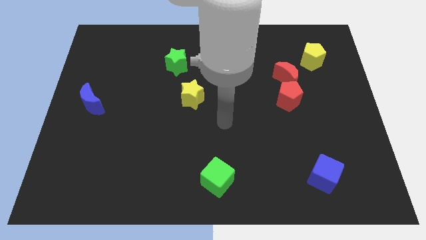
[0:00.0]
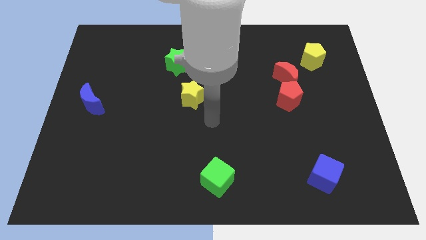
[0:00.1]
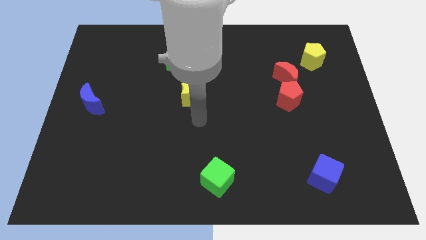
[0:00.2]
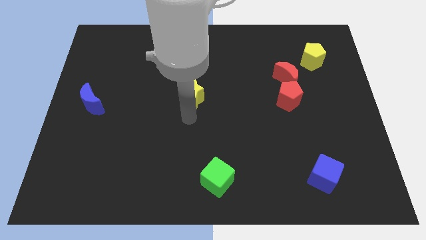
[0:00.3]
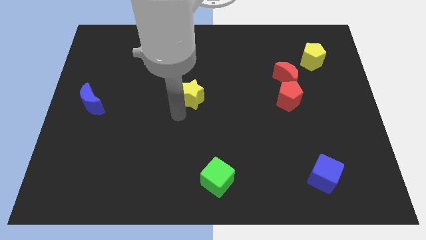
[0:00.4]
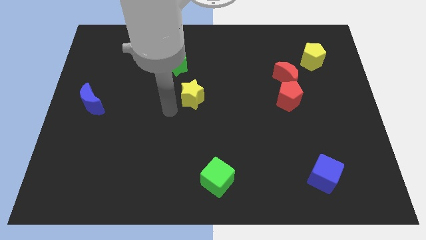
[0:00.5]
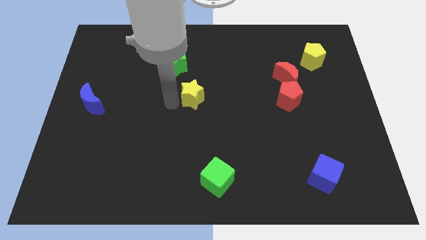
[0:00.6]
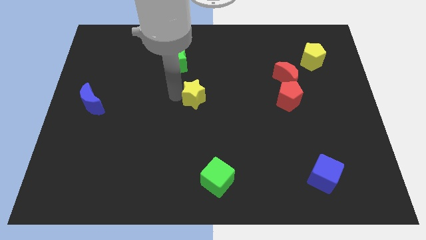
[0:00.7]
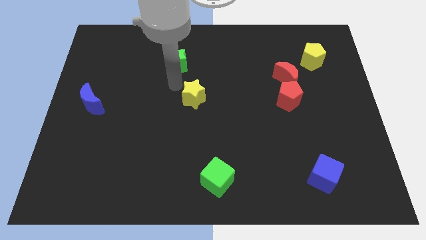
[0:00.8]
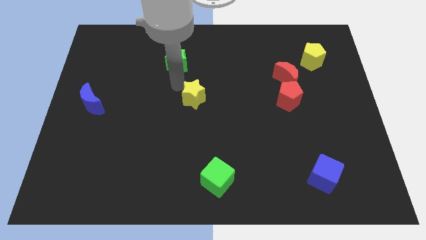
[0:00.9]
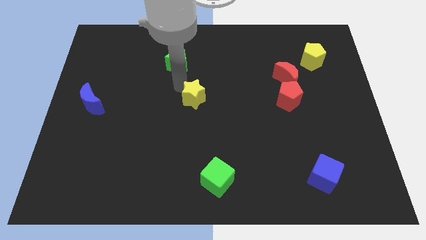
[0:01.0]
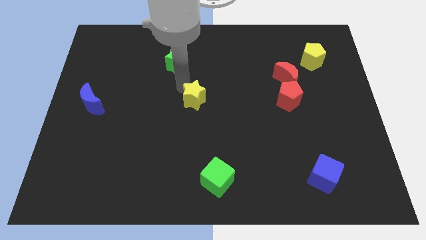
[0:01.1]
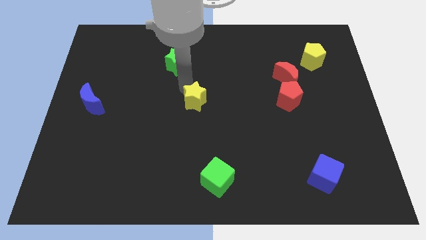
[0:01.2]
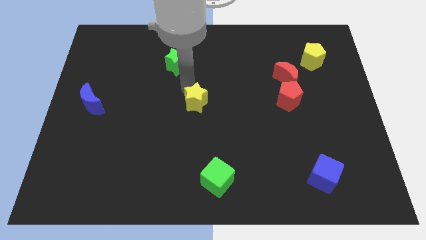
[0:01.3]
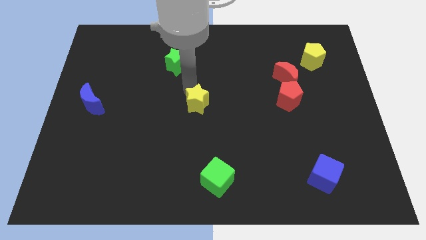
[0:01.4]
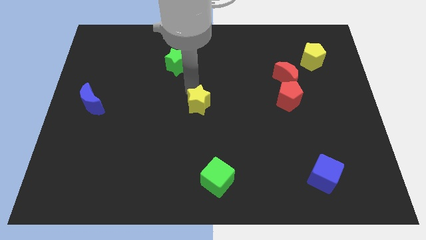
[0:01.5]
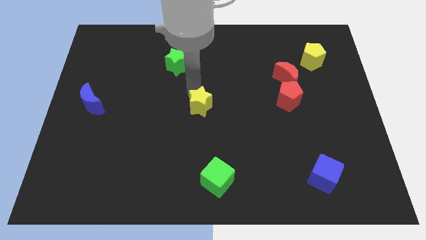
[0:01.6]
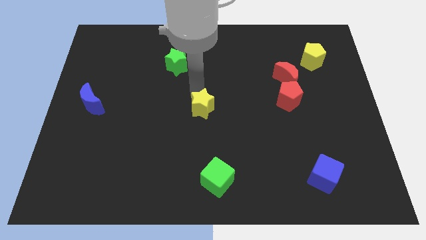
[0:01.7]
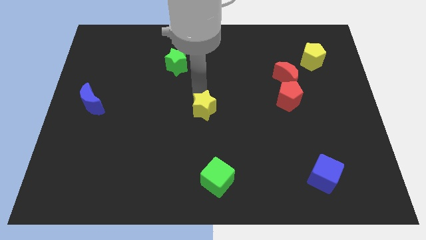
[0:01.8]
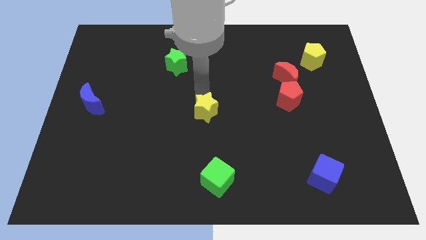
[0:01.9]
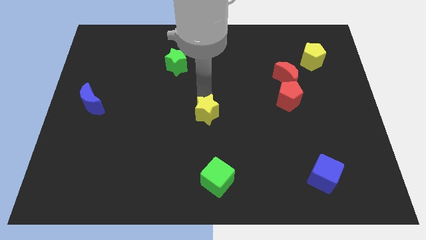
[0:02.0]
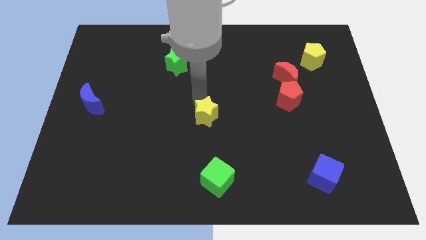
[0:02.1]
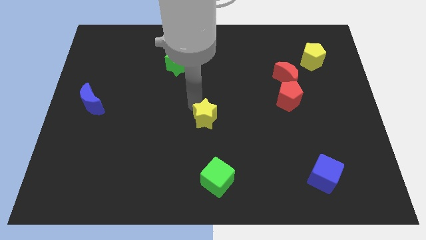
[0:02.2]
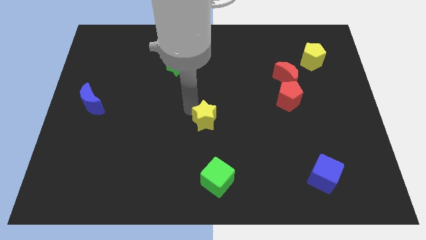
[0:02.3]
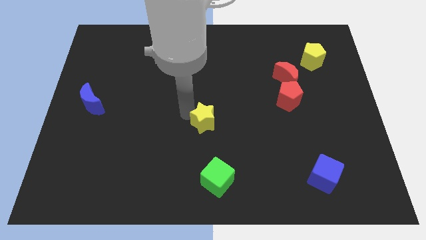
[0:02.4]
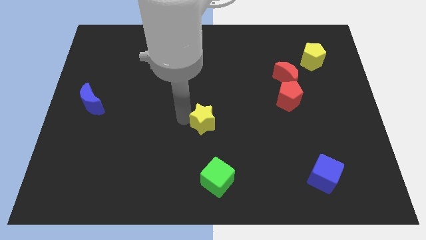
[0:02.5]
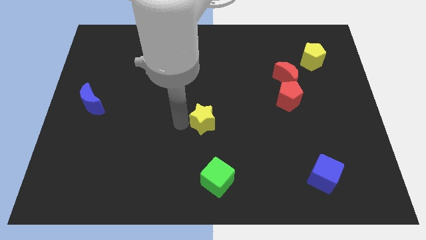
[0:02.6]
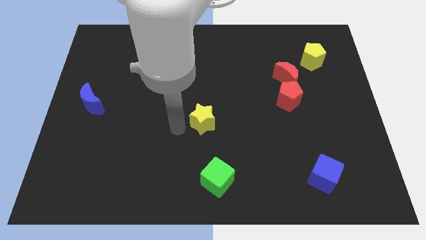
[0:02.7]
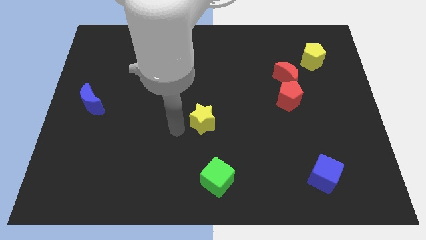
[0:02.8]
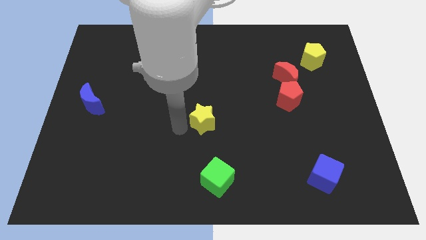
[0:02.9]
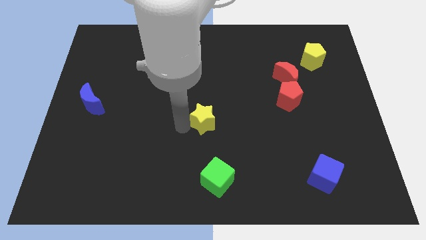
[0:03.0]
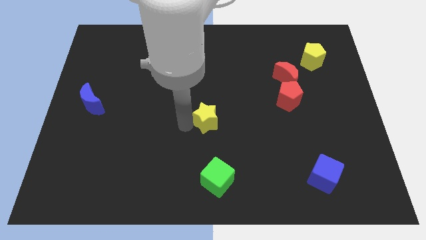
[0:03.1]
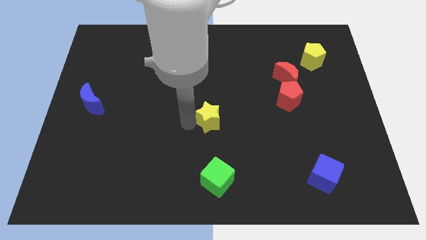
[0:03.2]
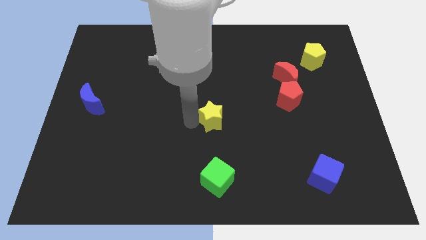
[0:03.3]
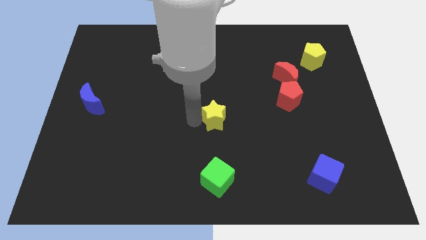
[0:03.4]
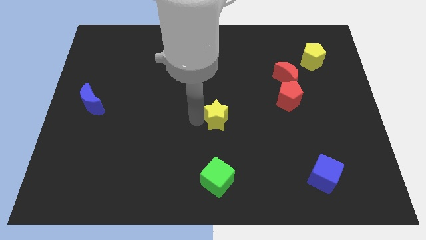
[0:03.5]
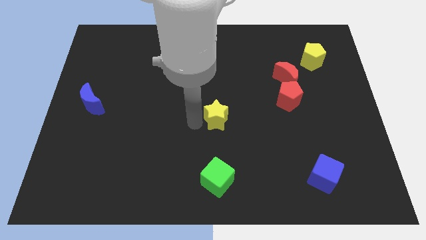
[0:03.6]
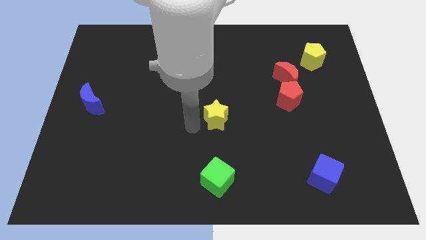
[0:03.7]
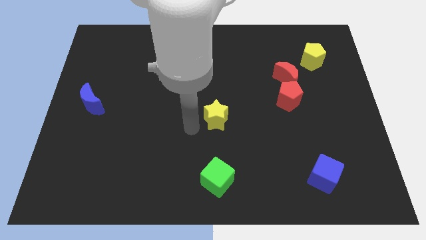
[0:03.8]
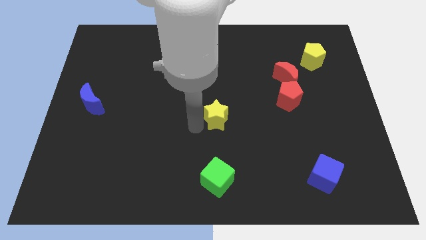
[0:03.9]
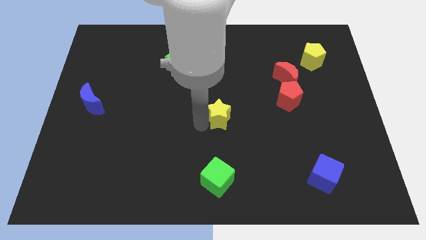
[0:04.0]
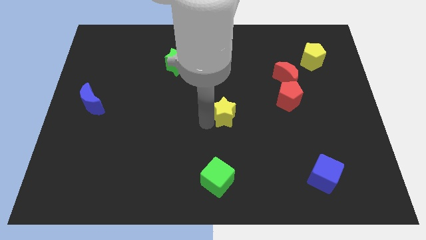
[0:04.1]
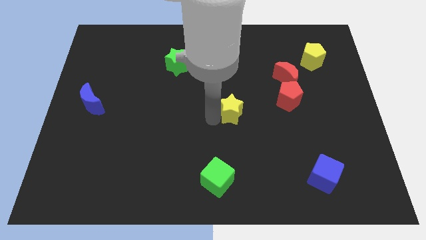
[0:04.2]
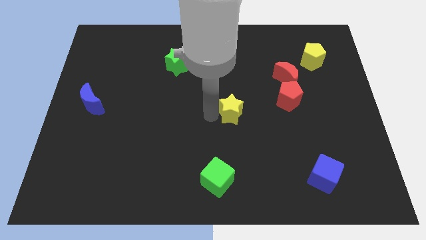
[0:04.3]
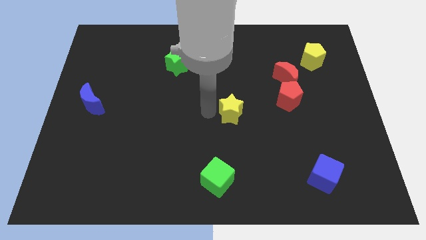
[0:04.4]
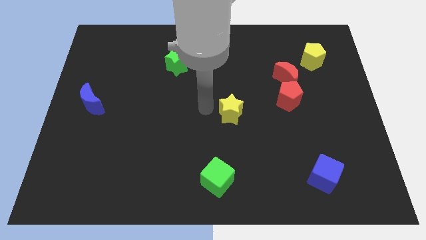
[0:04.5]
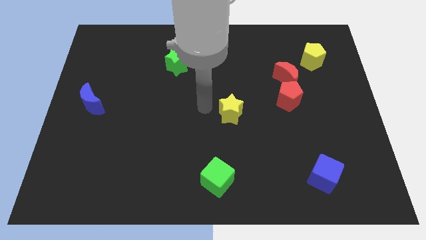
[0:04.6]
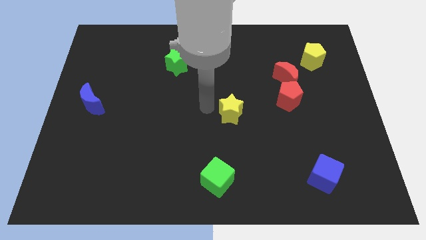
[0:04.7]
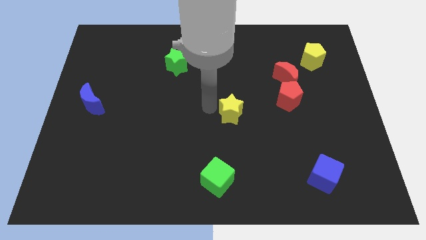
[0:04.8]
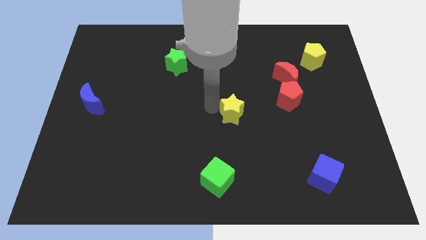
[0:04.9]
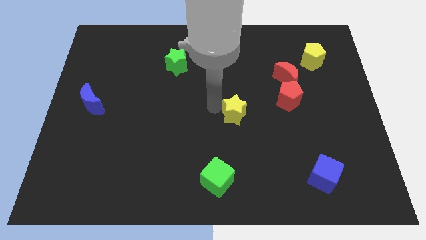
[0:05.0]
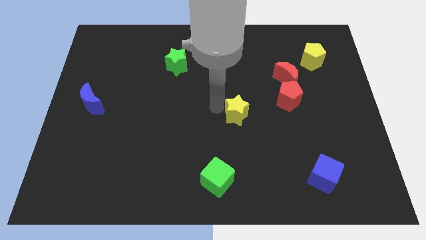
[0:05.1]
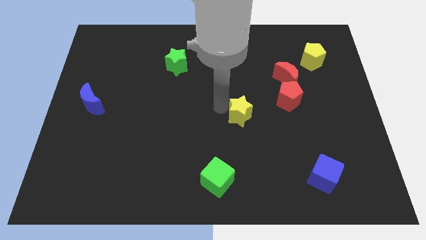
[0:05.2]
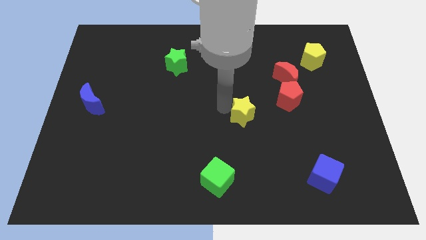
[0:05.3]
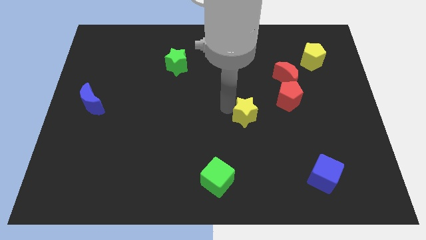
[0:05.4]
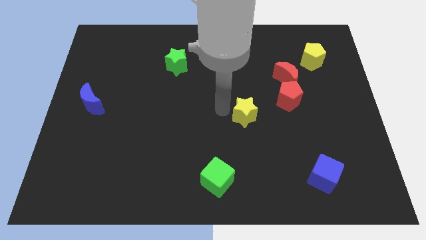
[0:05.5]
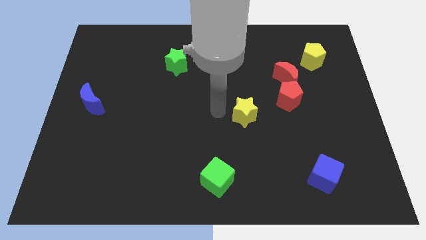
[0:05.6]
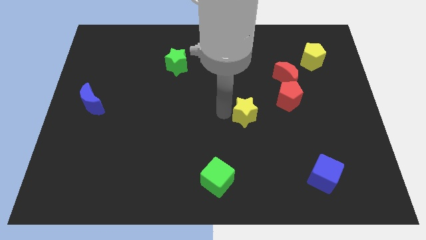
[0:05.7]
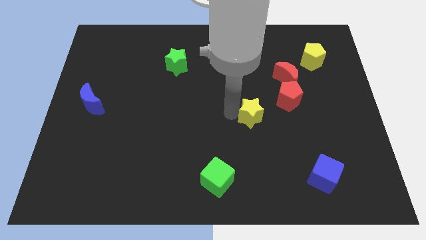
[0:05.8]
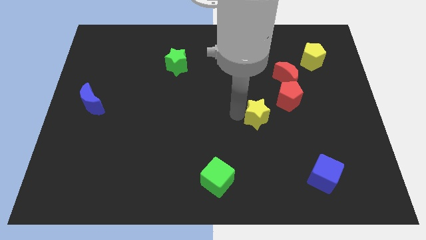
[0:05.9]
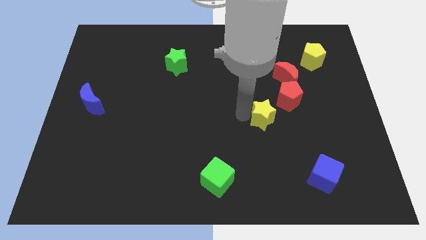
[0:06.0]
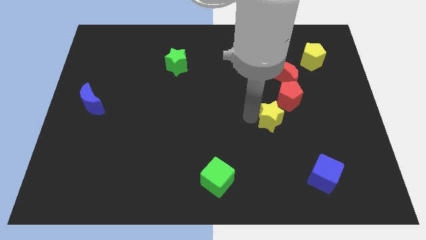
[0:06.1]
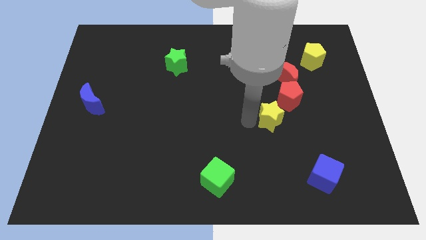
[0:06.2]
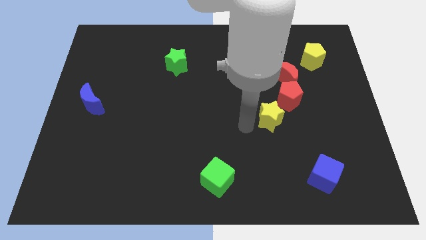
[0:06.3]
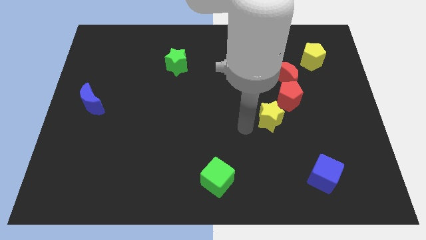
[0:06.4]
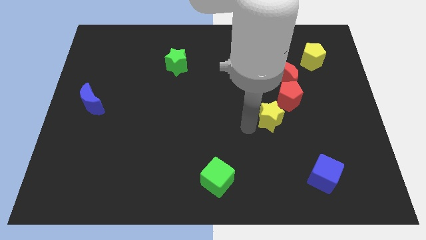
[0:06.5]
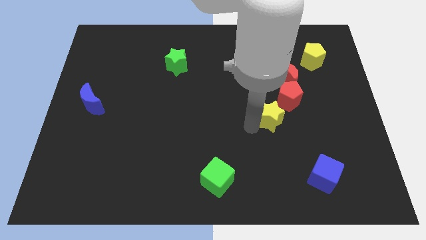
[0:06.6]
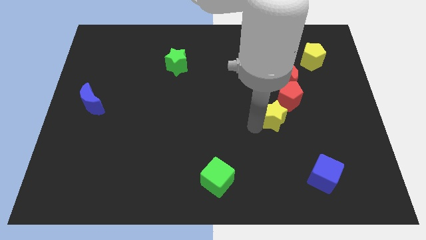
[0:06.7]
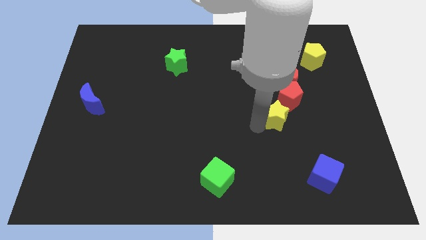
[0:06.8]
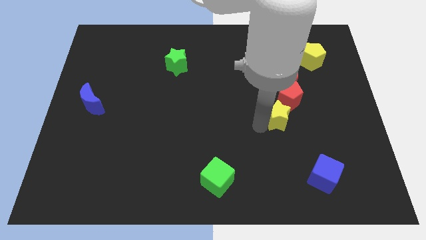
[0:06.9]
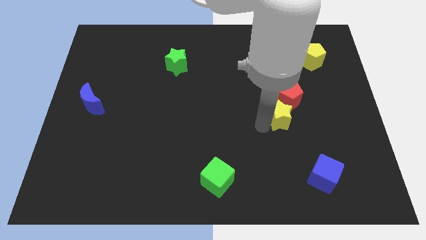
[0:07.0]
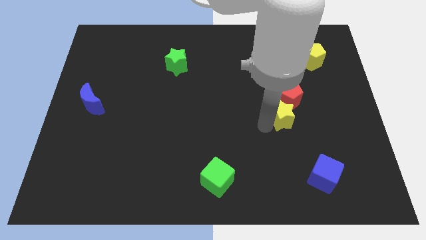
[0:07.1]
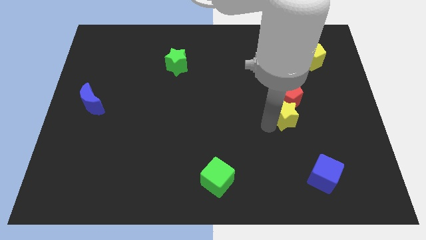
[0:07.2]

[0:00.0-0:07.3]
push the yellow star to the right

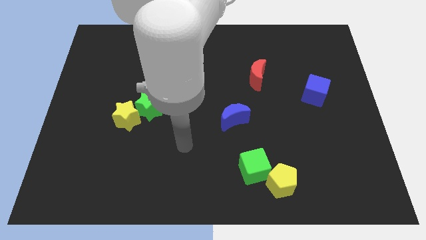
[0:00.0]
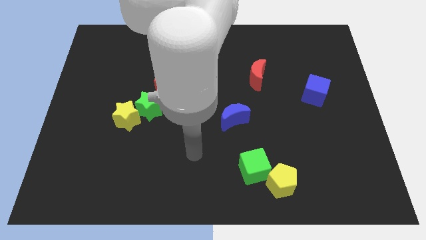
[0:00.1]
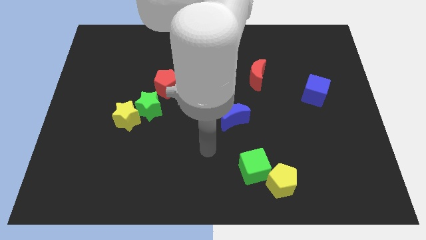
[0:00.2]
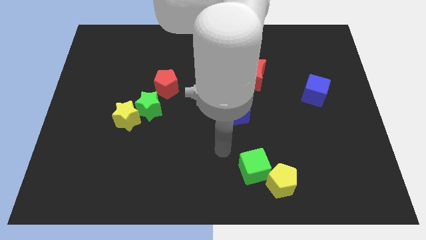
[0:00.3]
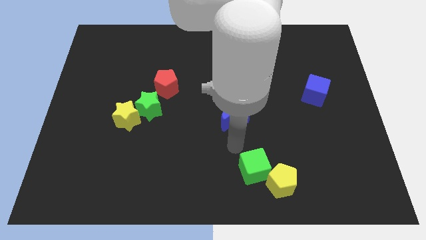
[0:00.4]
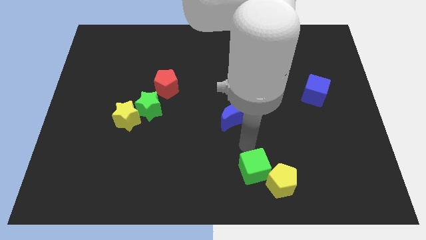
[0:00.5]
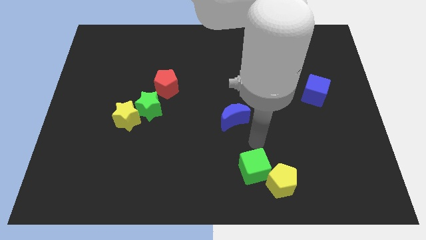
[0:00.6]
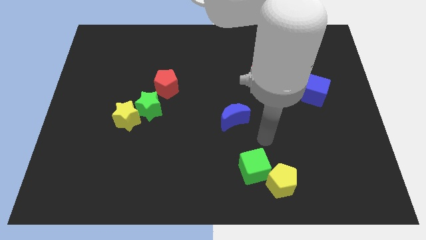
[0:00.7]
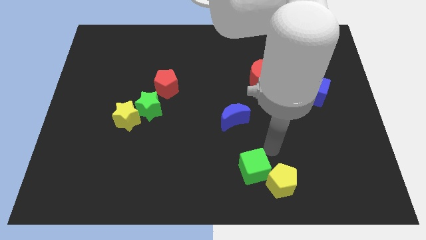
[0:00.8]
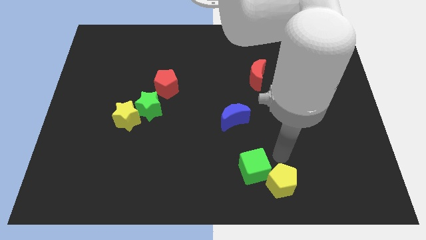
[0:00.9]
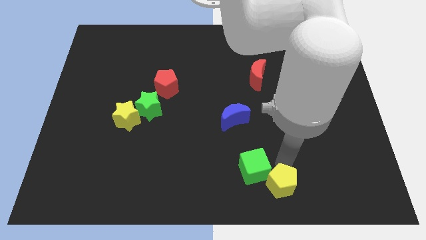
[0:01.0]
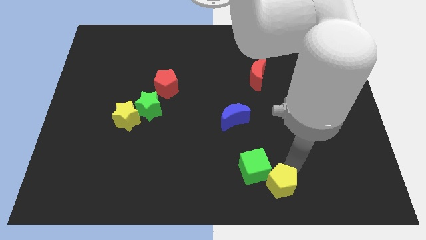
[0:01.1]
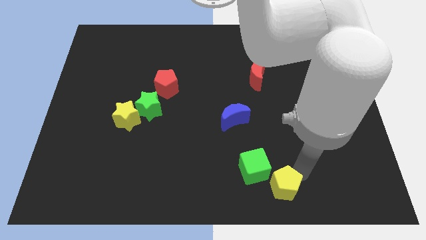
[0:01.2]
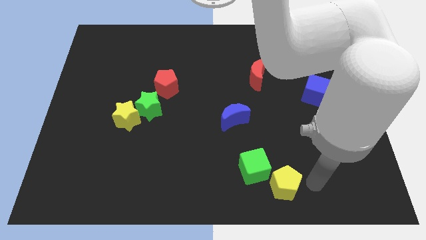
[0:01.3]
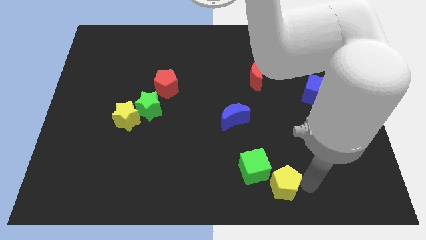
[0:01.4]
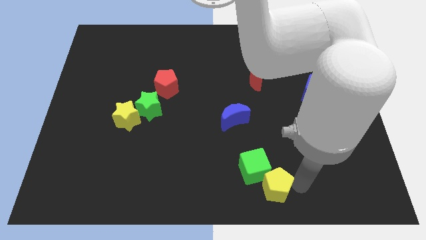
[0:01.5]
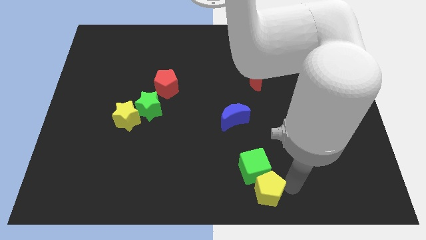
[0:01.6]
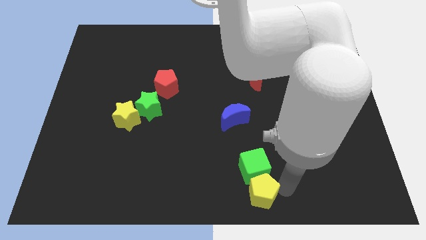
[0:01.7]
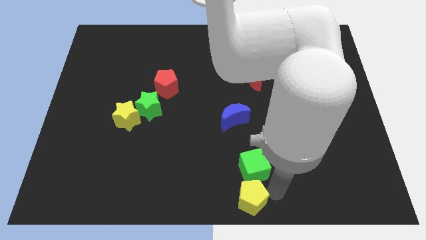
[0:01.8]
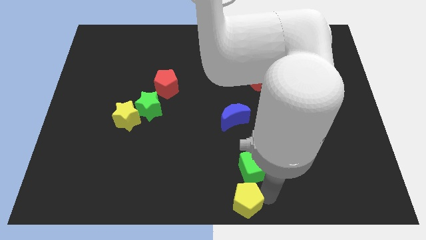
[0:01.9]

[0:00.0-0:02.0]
slightly slide the yellow pentagon to the left
